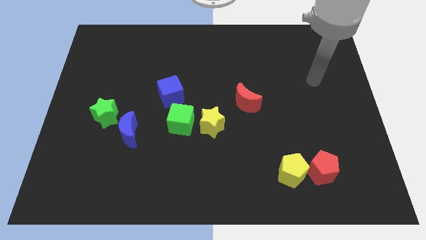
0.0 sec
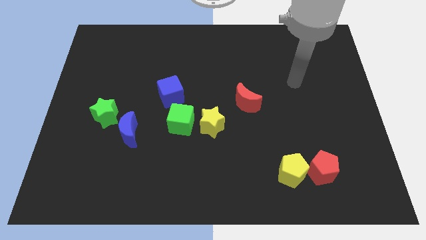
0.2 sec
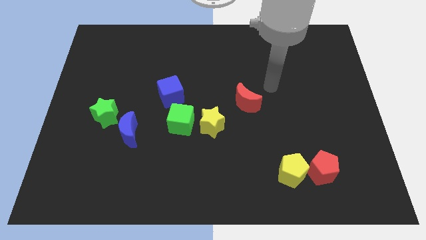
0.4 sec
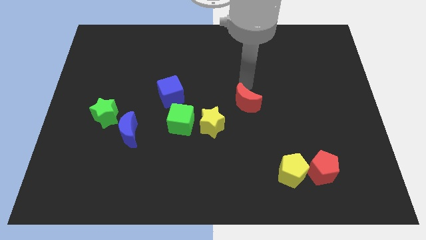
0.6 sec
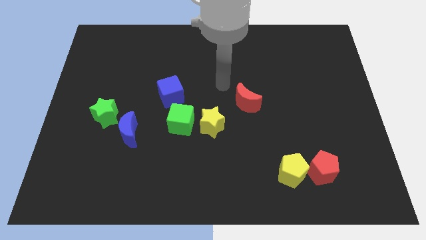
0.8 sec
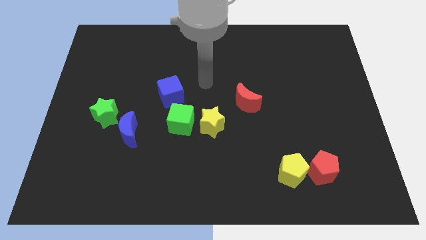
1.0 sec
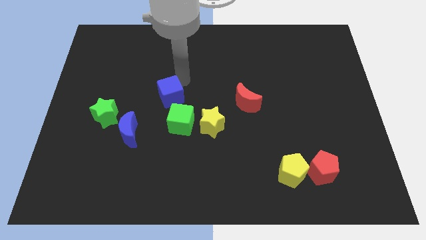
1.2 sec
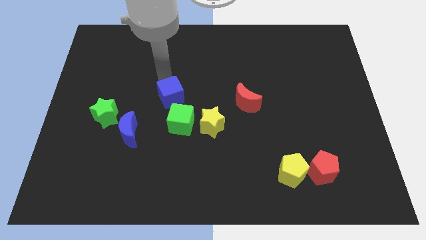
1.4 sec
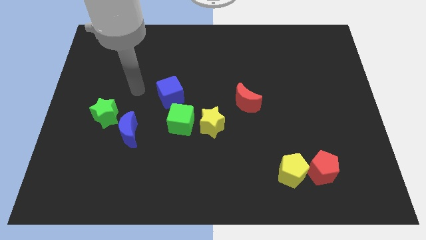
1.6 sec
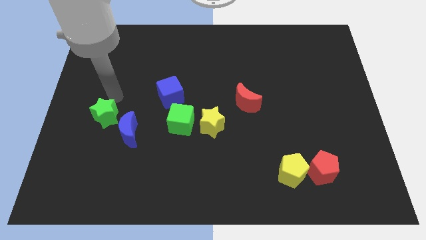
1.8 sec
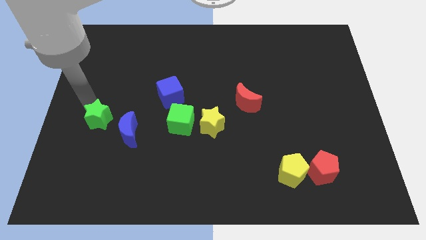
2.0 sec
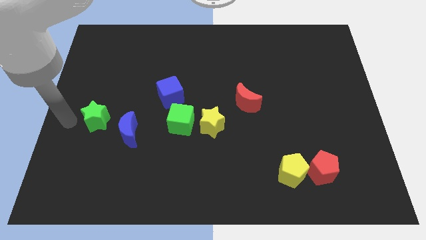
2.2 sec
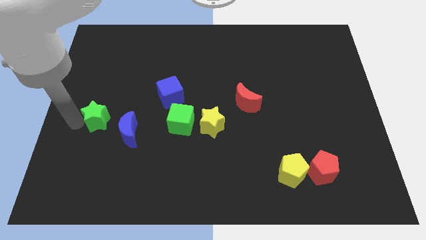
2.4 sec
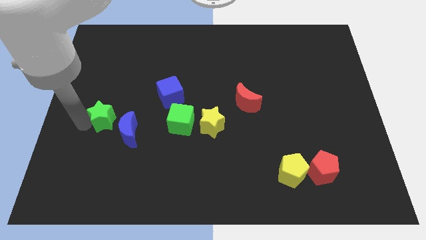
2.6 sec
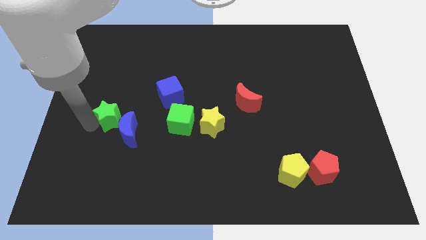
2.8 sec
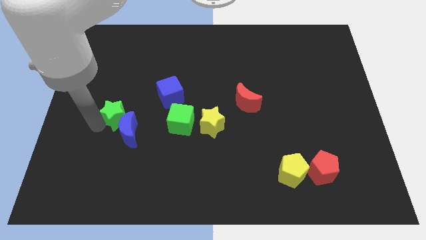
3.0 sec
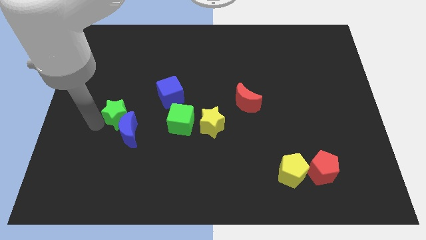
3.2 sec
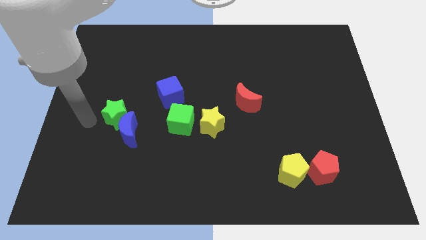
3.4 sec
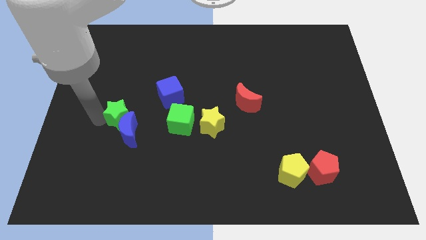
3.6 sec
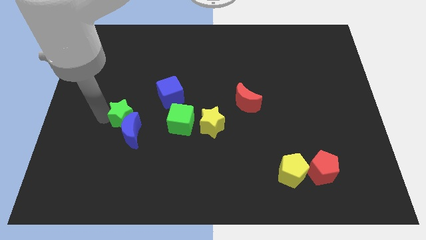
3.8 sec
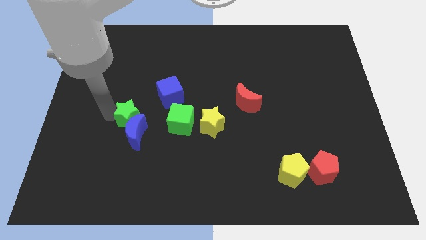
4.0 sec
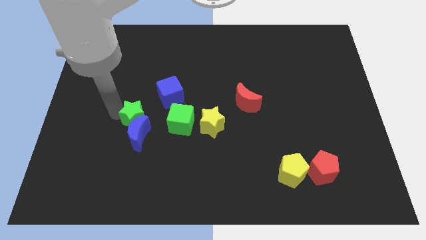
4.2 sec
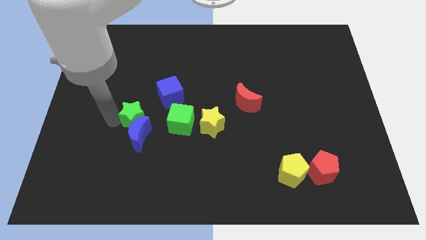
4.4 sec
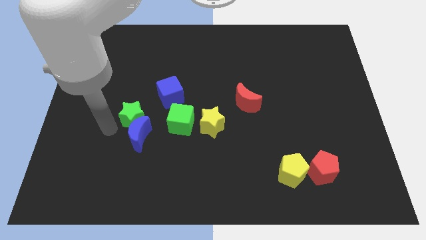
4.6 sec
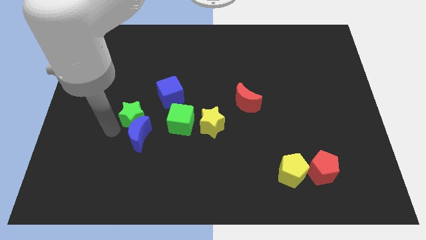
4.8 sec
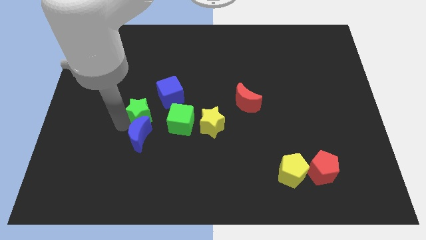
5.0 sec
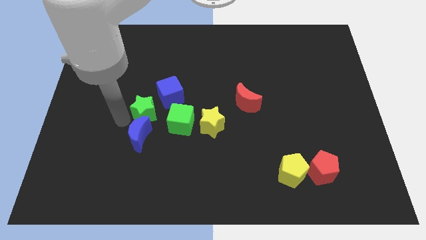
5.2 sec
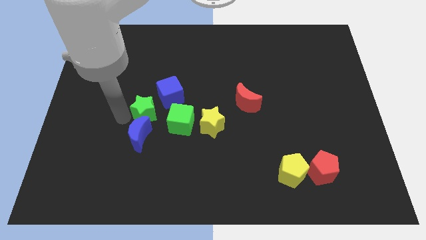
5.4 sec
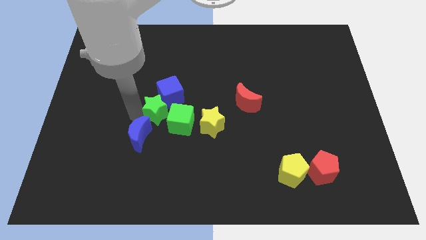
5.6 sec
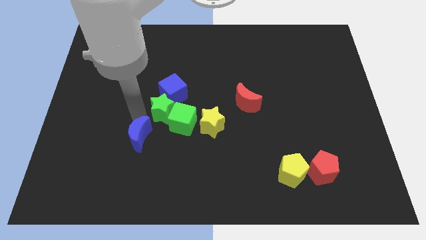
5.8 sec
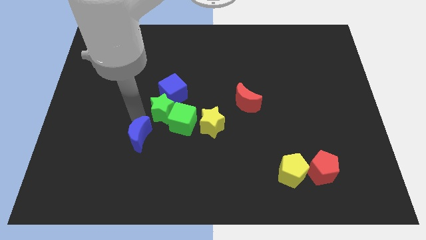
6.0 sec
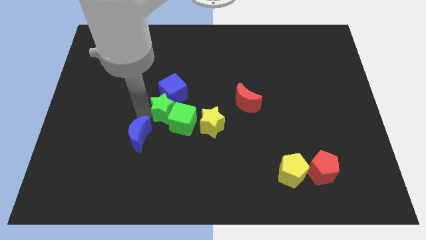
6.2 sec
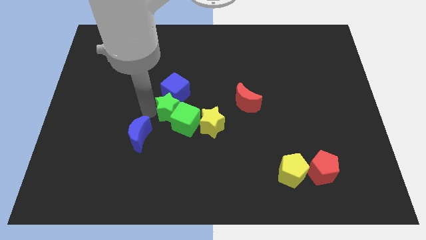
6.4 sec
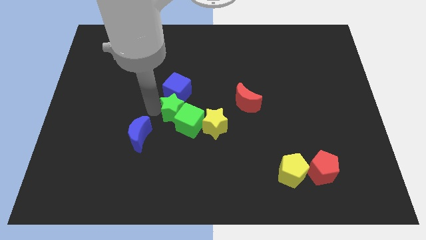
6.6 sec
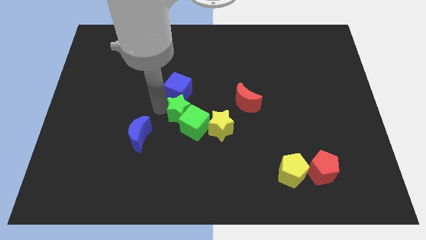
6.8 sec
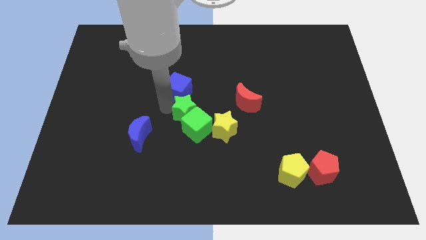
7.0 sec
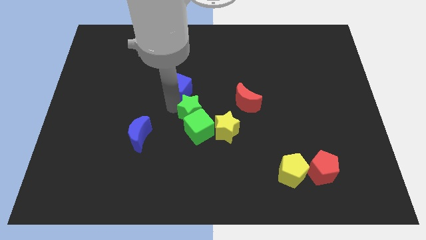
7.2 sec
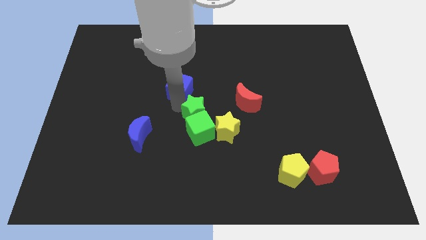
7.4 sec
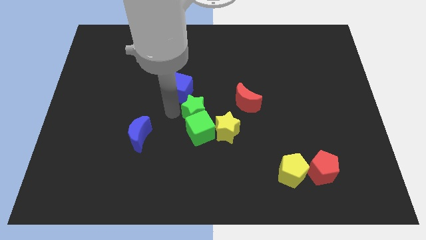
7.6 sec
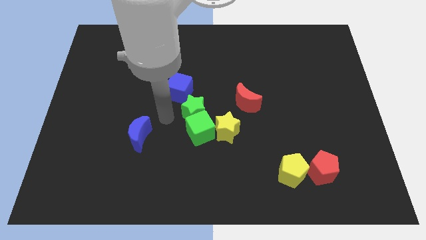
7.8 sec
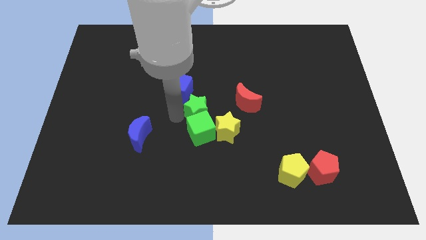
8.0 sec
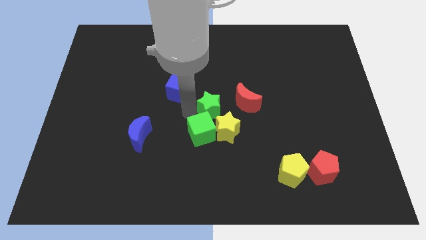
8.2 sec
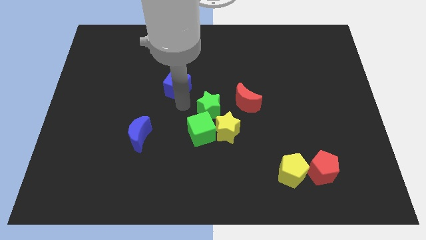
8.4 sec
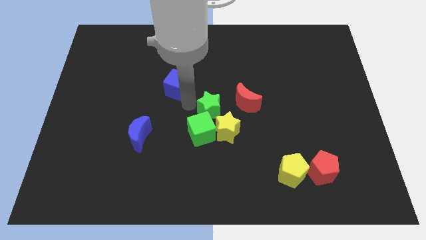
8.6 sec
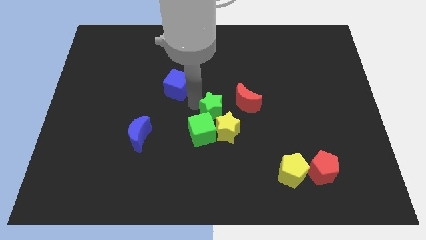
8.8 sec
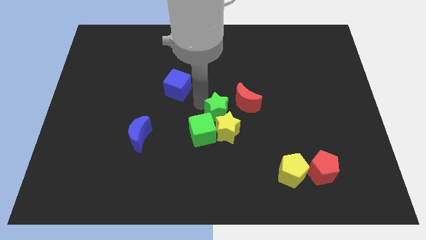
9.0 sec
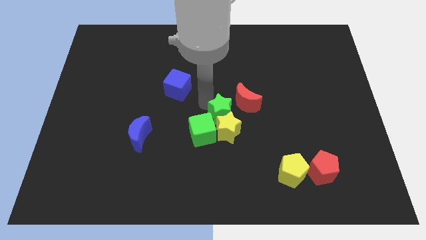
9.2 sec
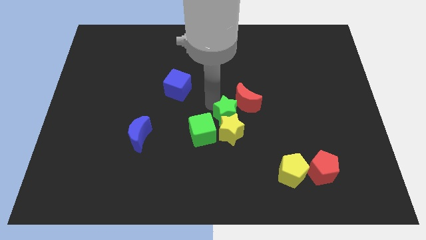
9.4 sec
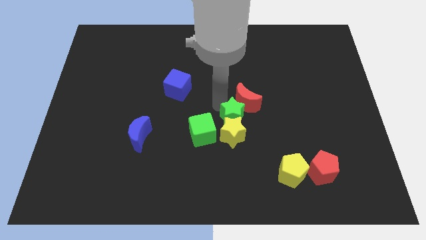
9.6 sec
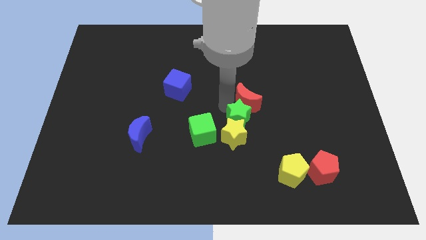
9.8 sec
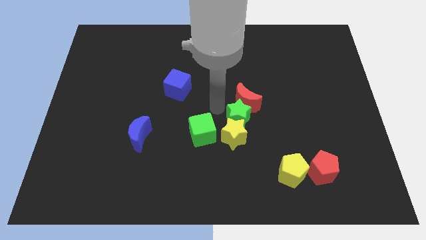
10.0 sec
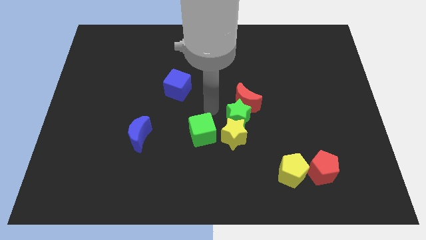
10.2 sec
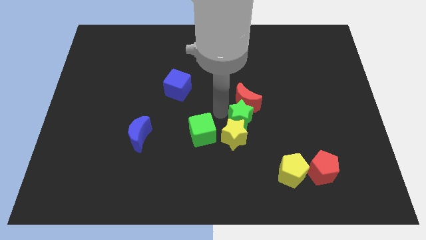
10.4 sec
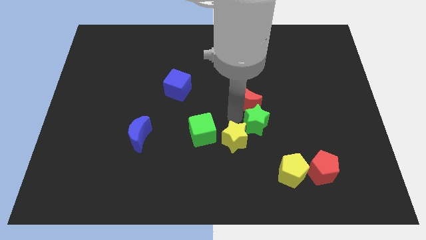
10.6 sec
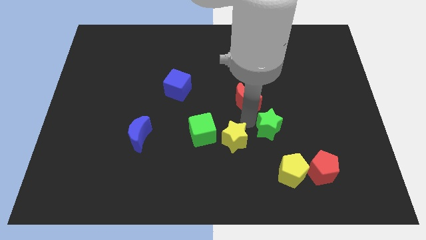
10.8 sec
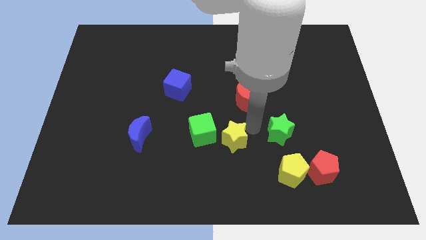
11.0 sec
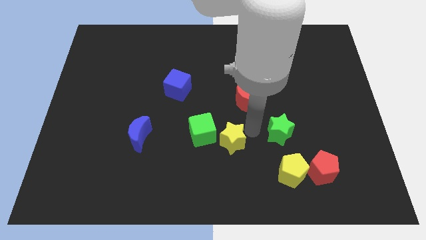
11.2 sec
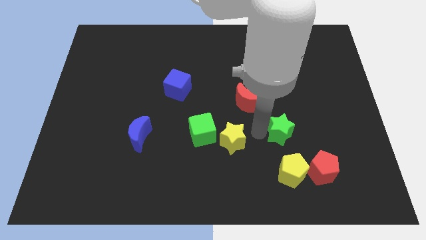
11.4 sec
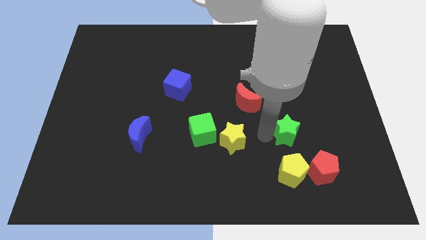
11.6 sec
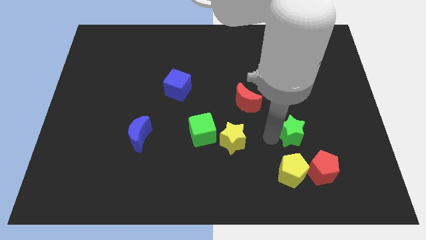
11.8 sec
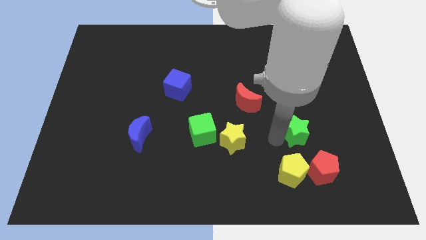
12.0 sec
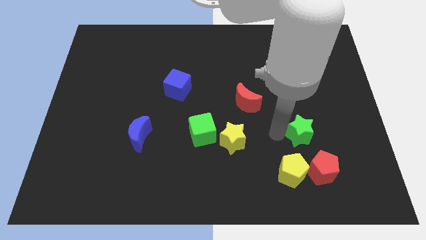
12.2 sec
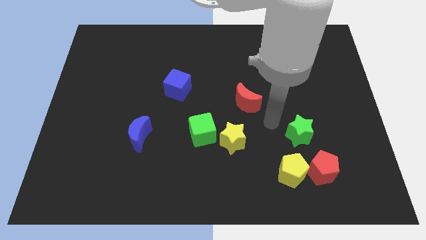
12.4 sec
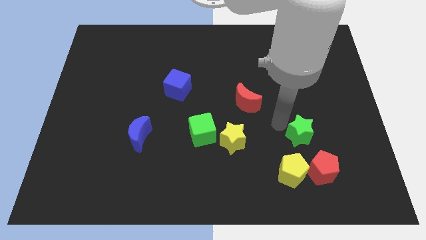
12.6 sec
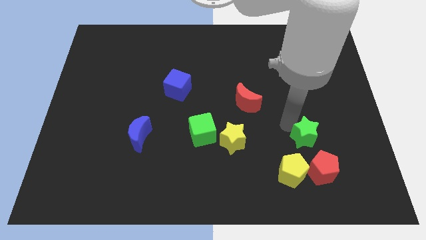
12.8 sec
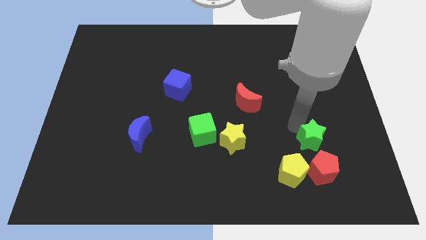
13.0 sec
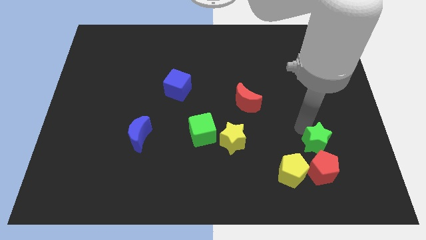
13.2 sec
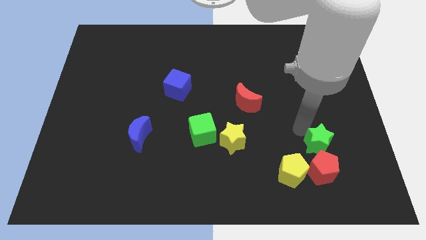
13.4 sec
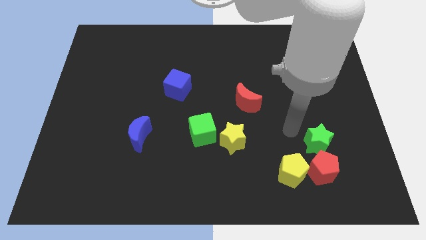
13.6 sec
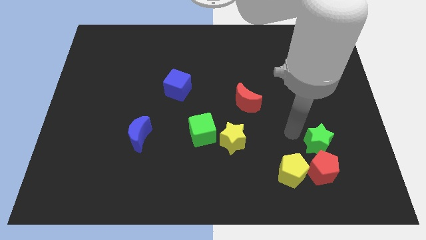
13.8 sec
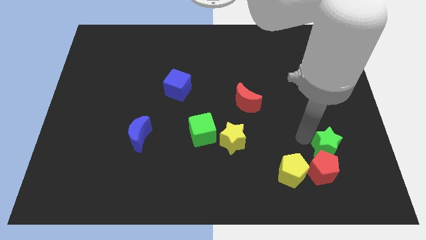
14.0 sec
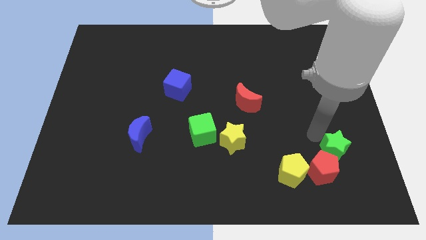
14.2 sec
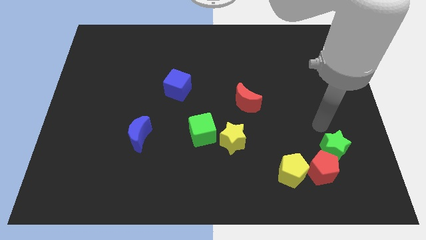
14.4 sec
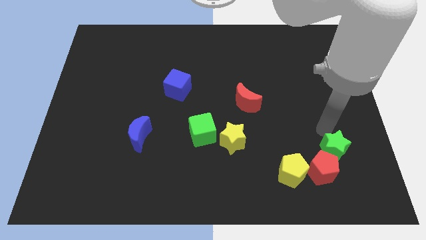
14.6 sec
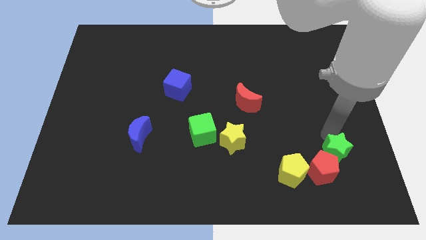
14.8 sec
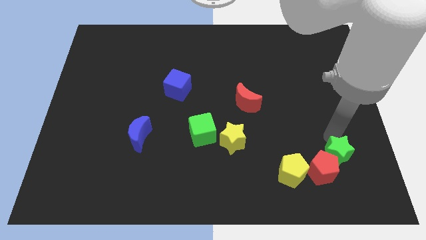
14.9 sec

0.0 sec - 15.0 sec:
put the green star right of the yellow pentagon
